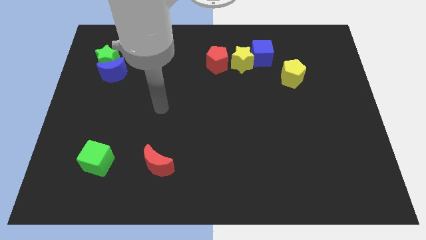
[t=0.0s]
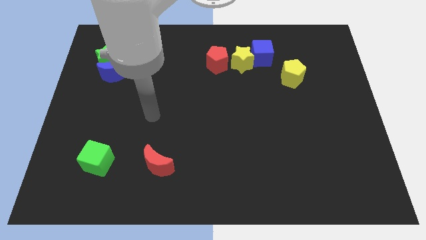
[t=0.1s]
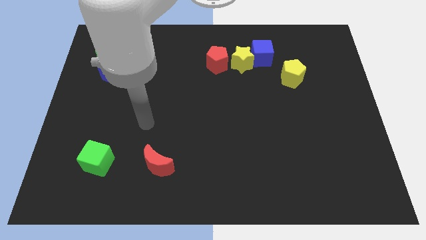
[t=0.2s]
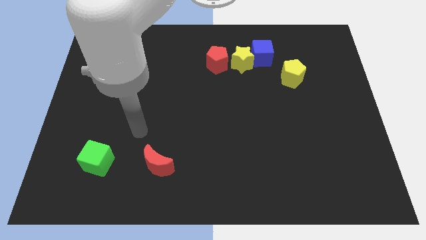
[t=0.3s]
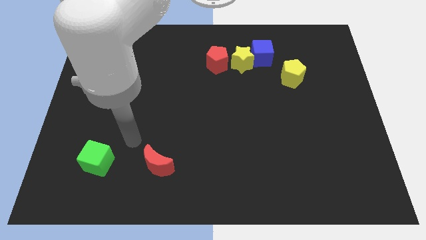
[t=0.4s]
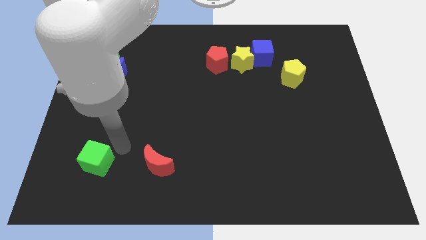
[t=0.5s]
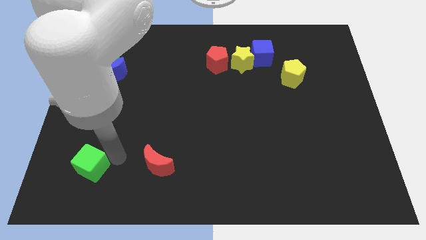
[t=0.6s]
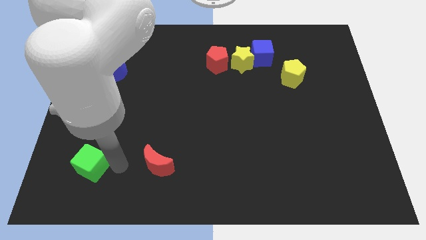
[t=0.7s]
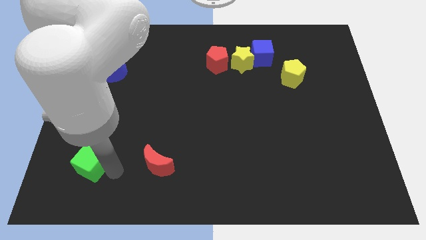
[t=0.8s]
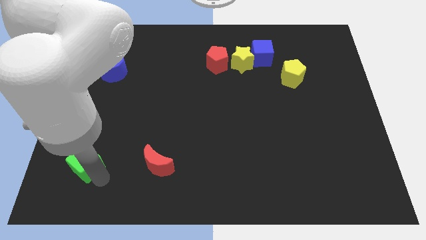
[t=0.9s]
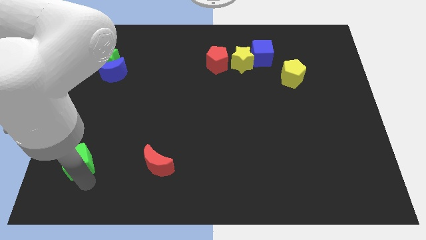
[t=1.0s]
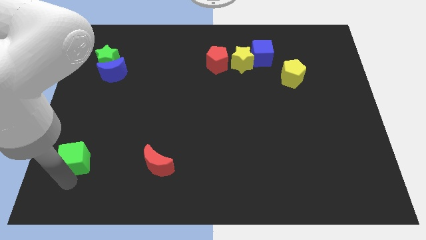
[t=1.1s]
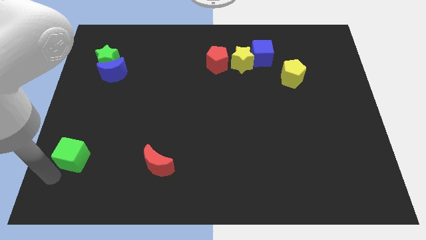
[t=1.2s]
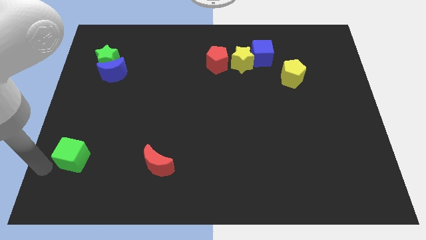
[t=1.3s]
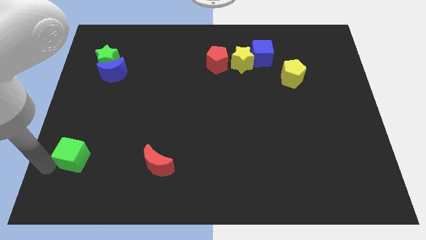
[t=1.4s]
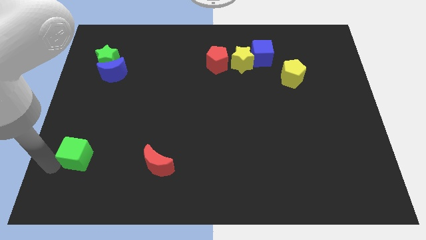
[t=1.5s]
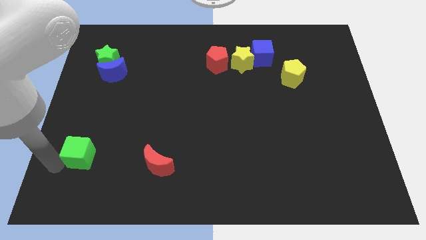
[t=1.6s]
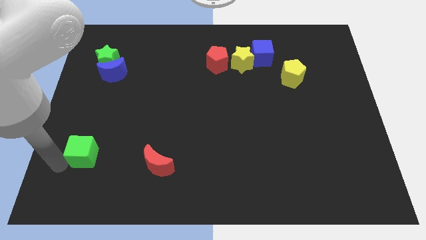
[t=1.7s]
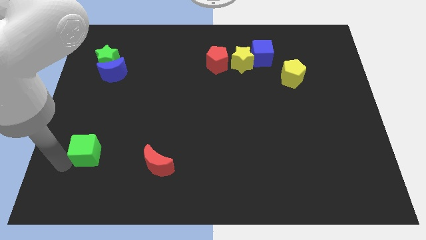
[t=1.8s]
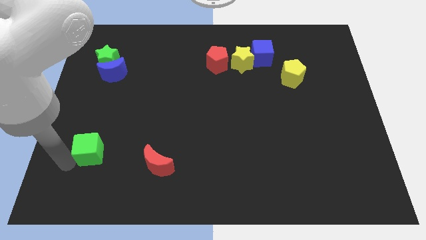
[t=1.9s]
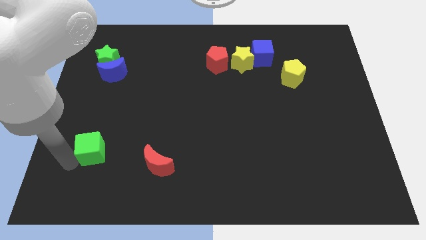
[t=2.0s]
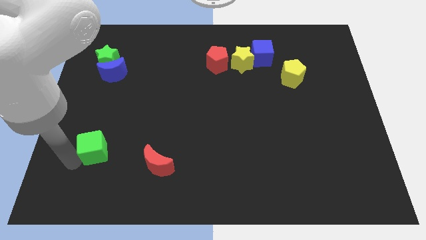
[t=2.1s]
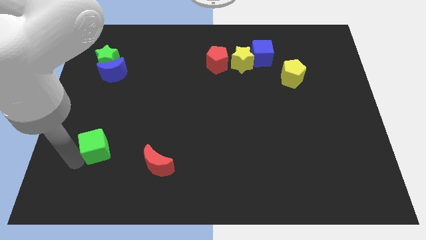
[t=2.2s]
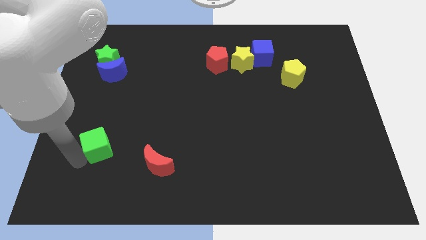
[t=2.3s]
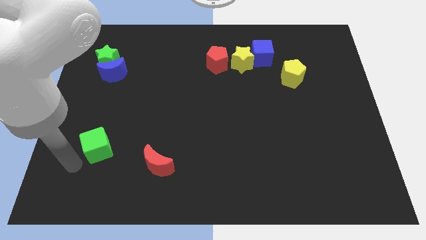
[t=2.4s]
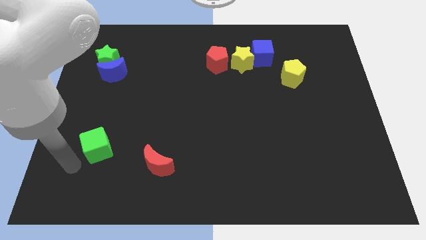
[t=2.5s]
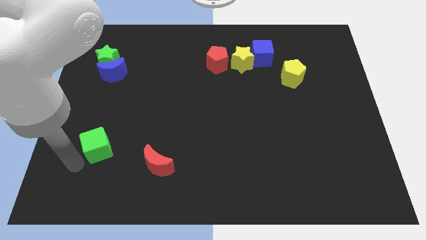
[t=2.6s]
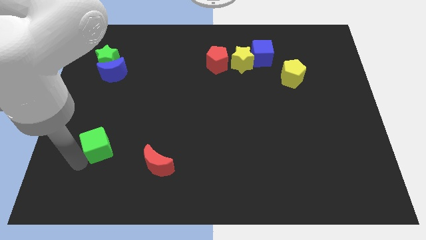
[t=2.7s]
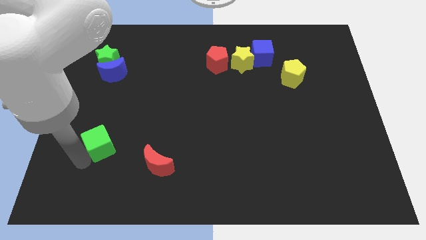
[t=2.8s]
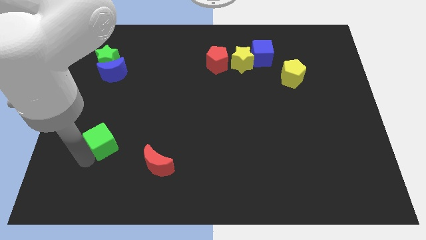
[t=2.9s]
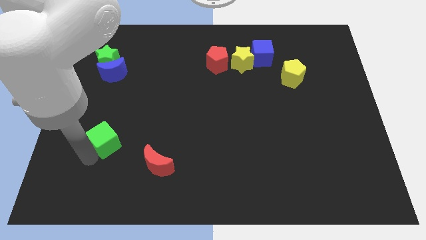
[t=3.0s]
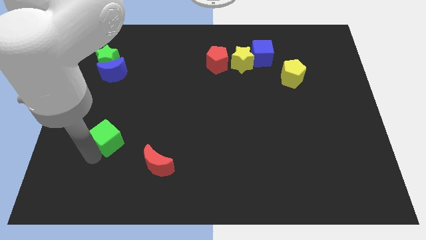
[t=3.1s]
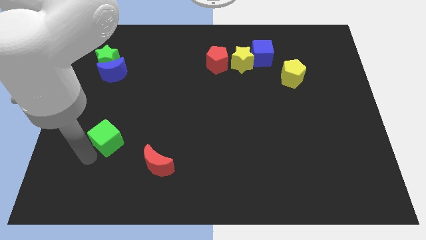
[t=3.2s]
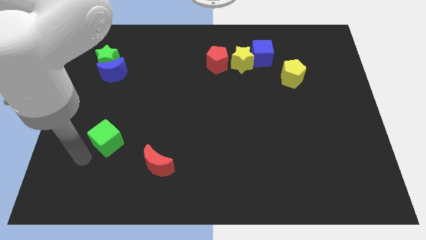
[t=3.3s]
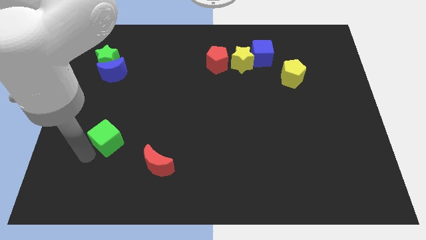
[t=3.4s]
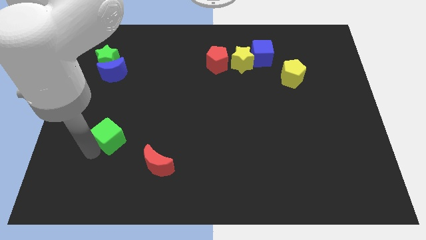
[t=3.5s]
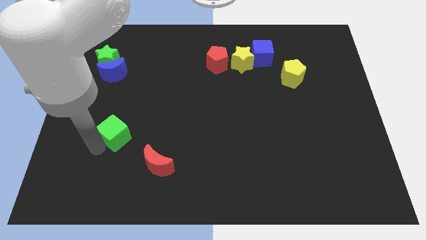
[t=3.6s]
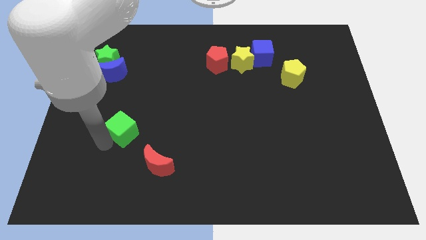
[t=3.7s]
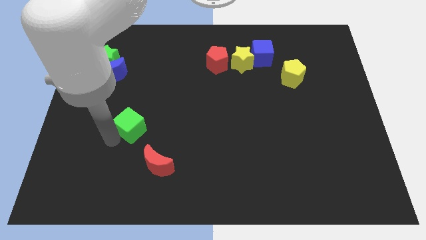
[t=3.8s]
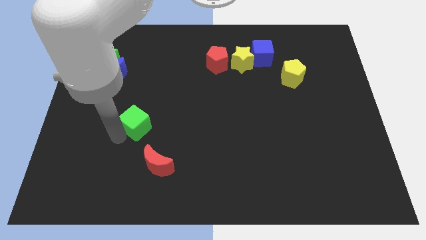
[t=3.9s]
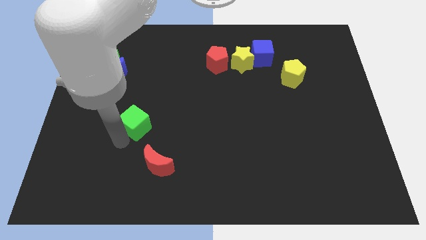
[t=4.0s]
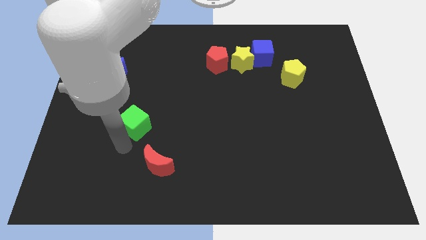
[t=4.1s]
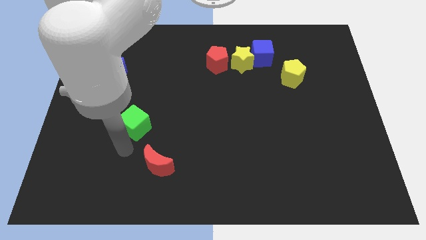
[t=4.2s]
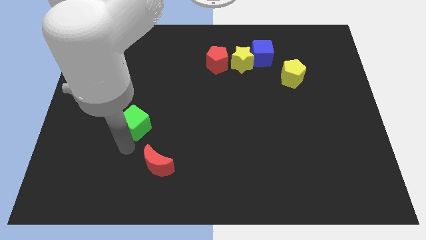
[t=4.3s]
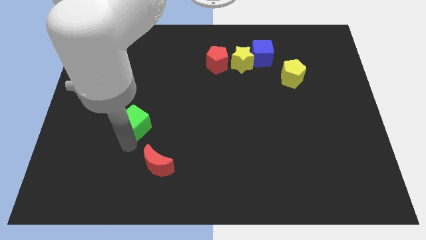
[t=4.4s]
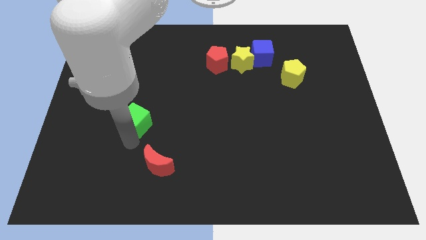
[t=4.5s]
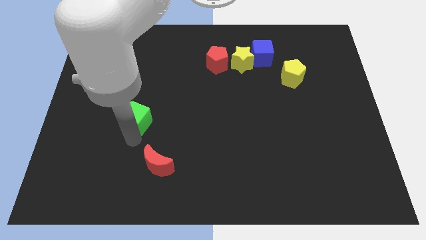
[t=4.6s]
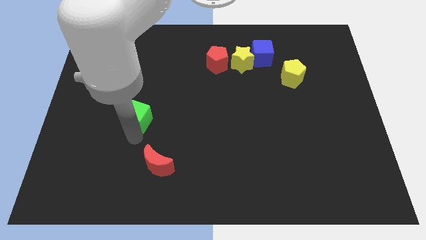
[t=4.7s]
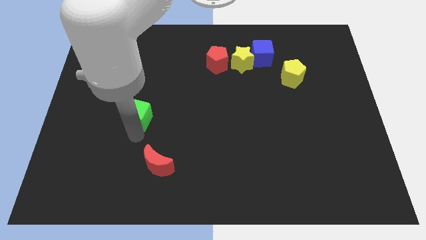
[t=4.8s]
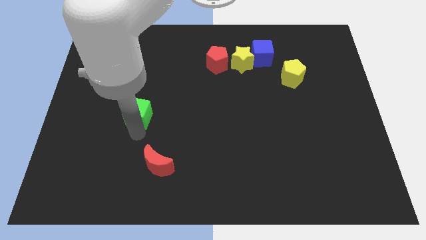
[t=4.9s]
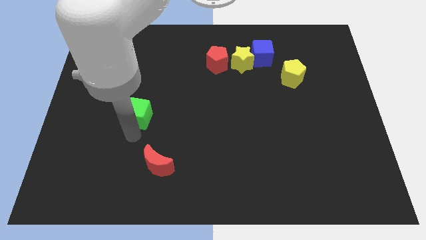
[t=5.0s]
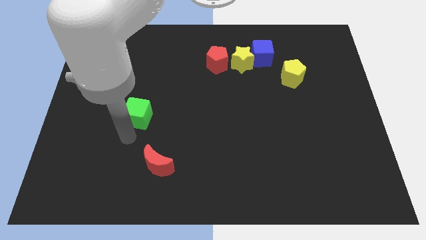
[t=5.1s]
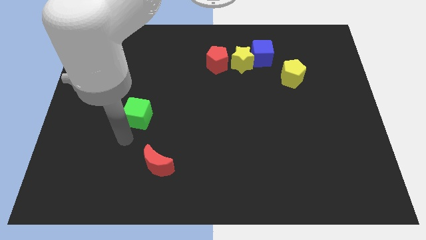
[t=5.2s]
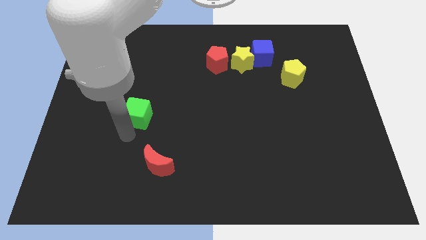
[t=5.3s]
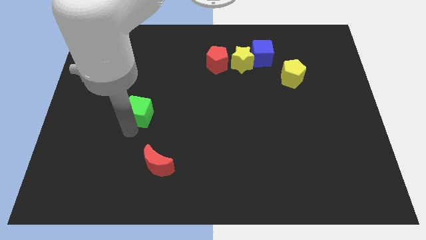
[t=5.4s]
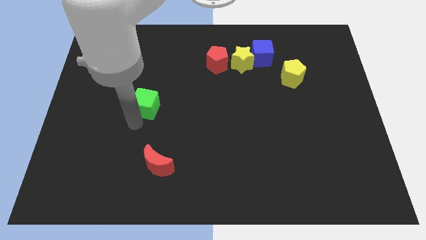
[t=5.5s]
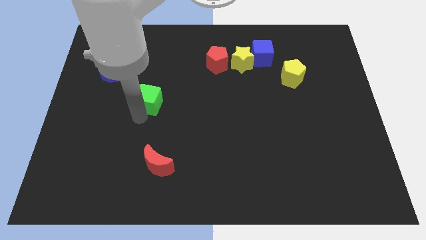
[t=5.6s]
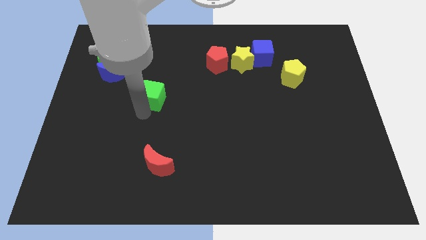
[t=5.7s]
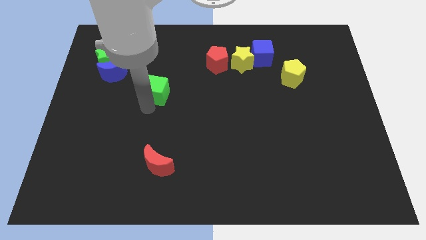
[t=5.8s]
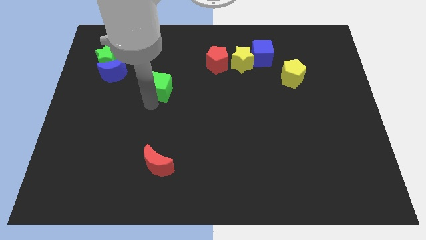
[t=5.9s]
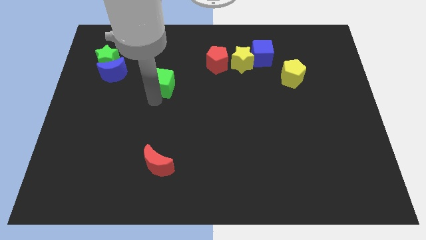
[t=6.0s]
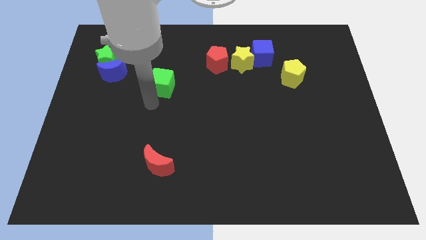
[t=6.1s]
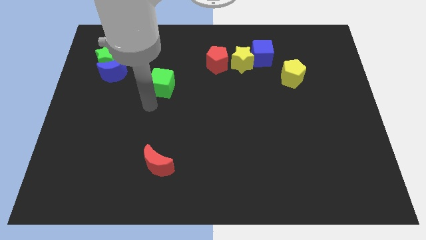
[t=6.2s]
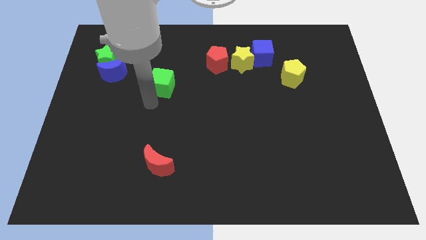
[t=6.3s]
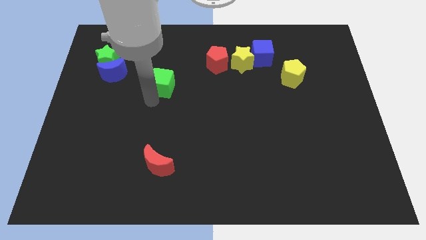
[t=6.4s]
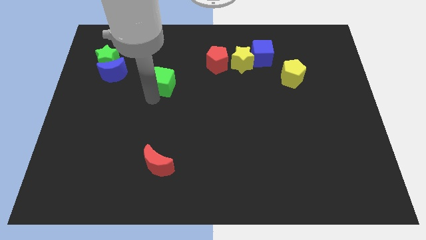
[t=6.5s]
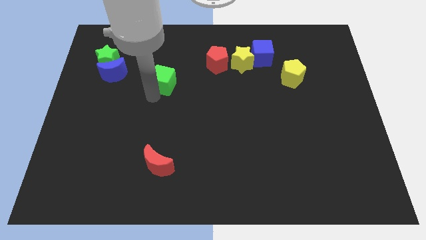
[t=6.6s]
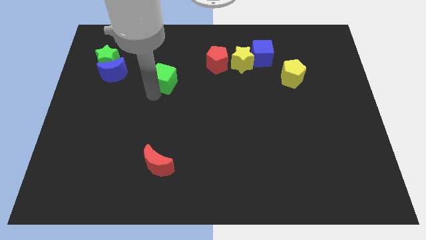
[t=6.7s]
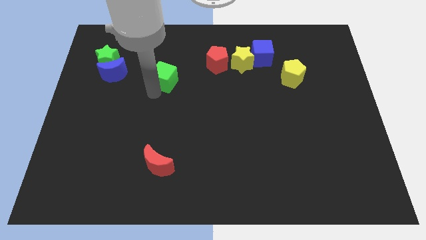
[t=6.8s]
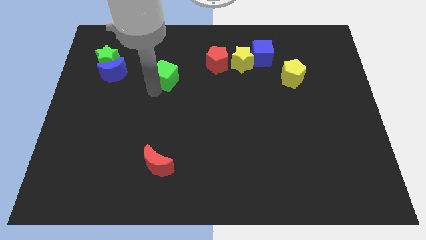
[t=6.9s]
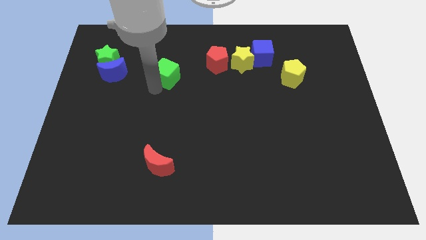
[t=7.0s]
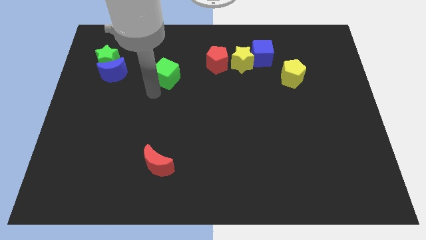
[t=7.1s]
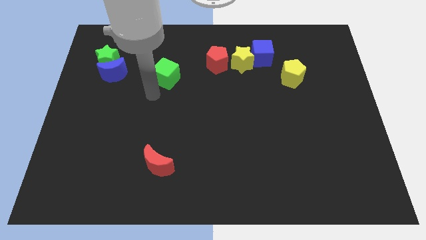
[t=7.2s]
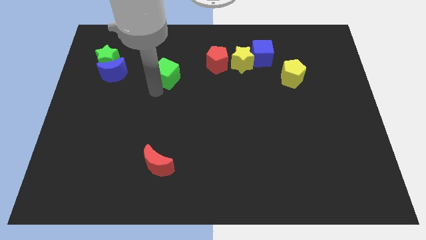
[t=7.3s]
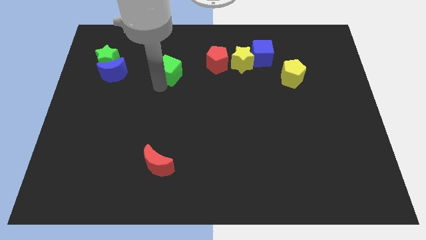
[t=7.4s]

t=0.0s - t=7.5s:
push the green cube just left of the red pentagon

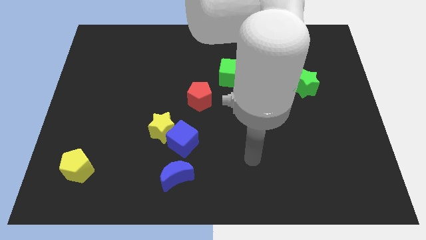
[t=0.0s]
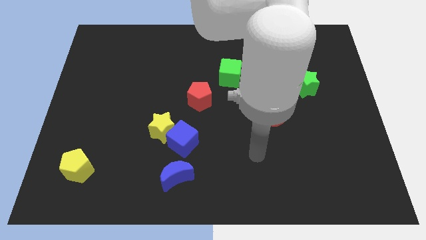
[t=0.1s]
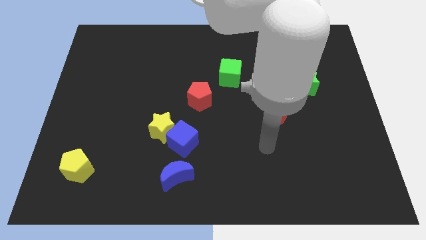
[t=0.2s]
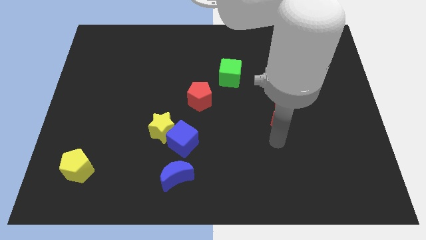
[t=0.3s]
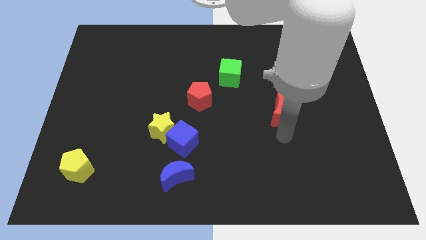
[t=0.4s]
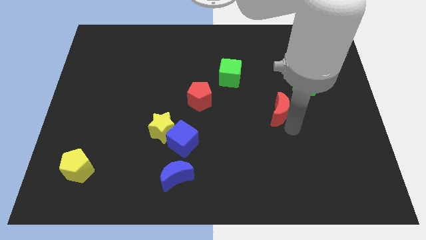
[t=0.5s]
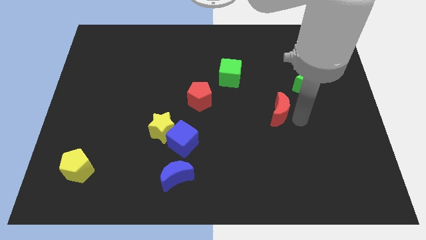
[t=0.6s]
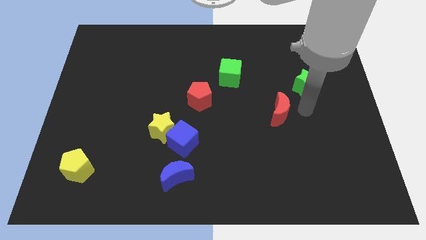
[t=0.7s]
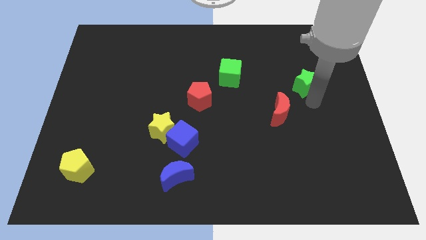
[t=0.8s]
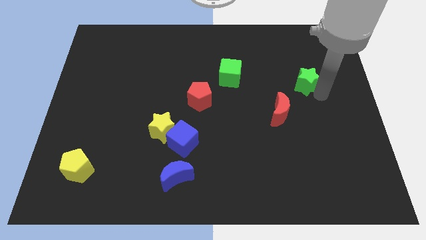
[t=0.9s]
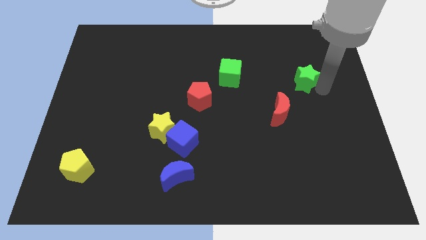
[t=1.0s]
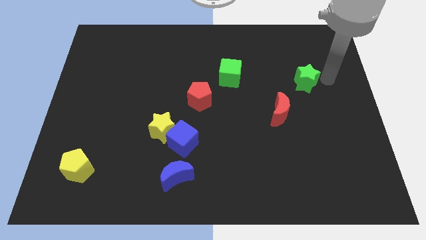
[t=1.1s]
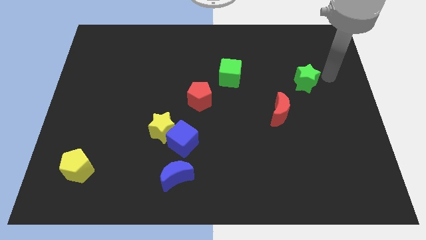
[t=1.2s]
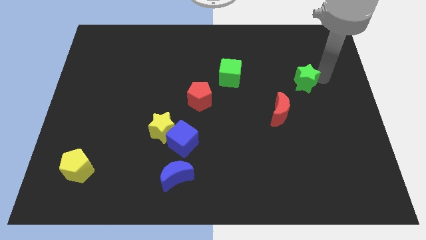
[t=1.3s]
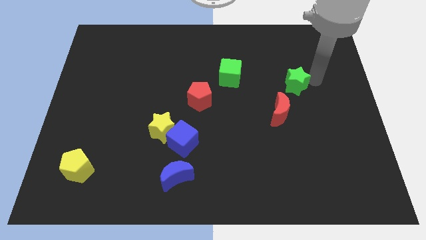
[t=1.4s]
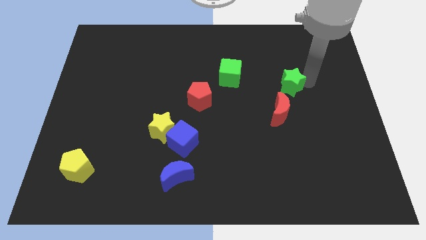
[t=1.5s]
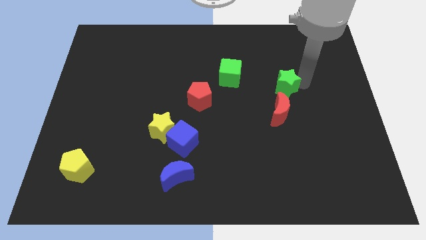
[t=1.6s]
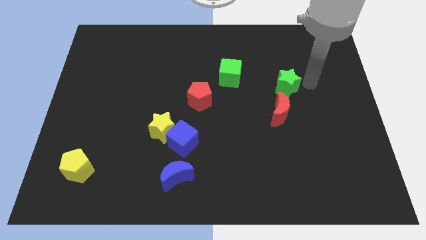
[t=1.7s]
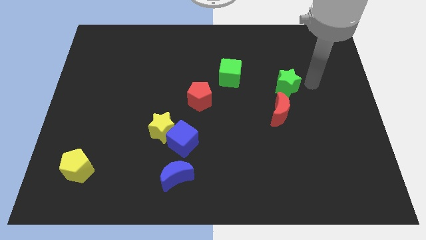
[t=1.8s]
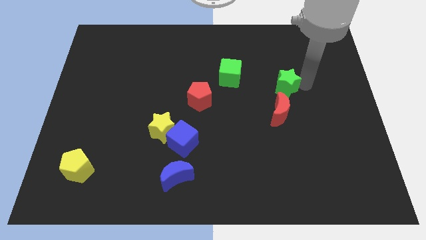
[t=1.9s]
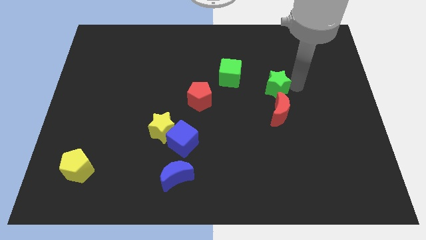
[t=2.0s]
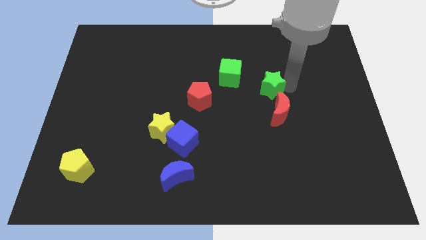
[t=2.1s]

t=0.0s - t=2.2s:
move the green star diagonally down and to the right of the green cube
